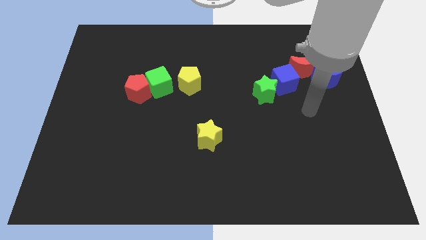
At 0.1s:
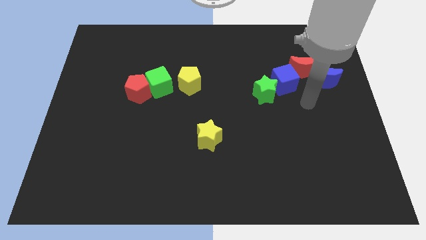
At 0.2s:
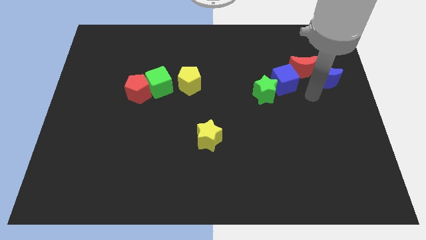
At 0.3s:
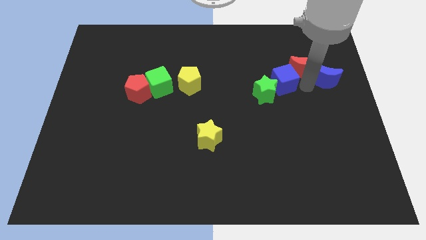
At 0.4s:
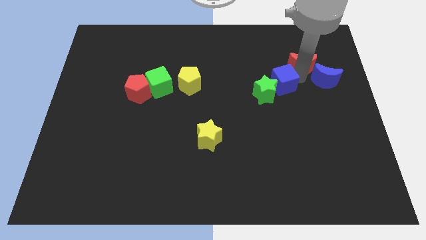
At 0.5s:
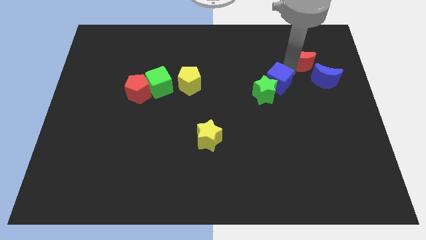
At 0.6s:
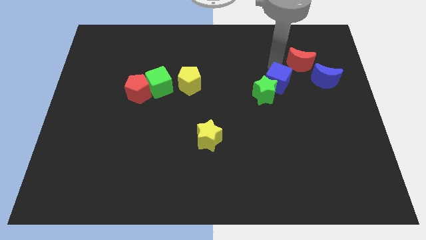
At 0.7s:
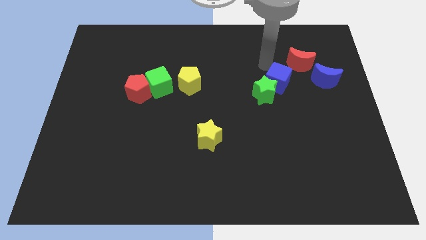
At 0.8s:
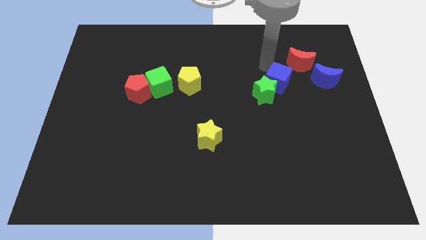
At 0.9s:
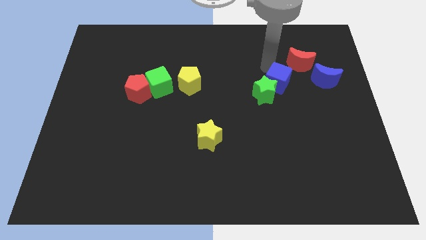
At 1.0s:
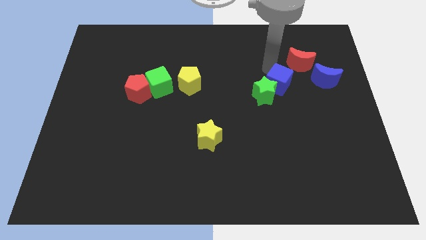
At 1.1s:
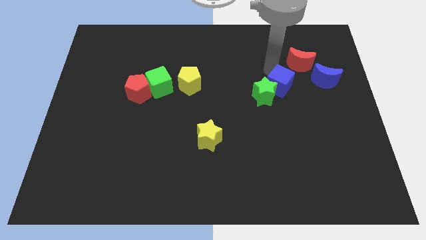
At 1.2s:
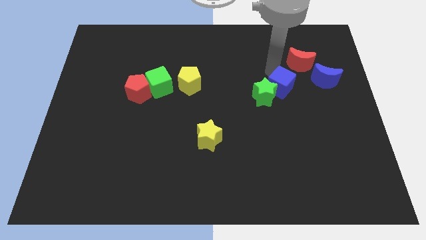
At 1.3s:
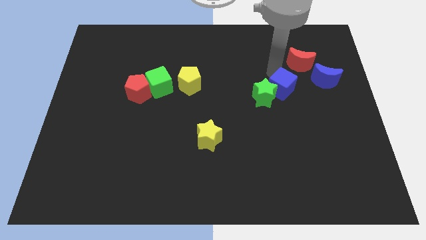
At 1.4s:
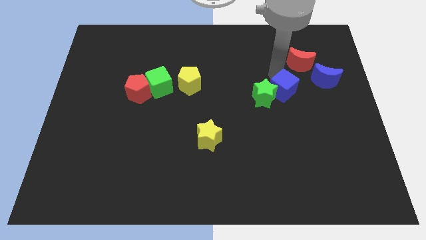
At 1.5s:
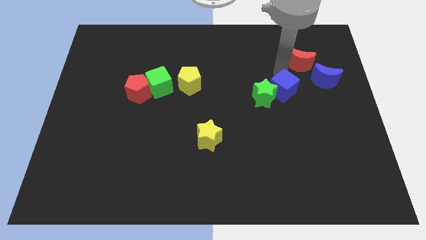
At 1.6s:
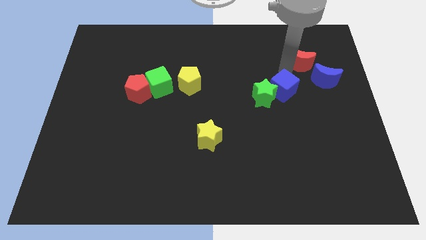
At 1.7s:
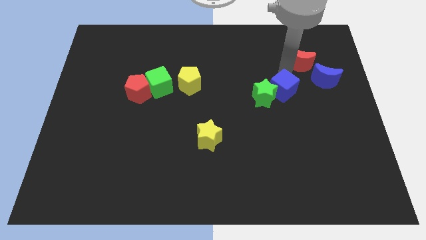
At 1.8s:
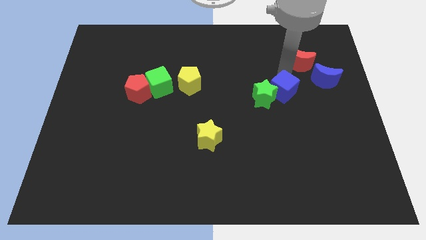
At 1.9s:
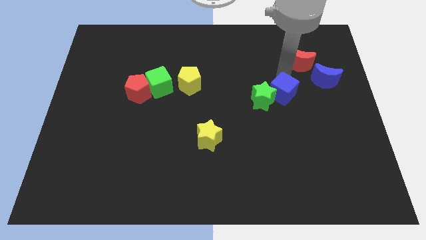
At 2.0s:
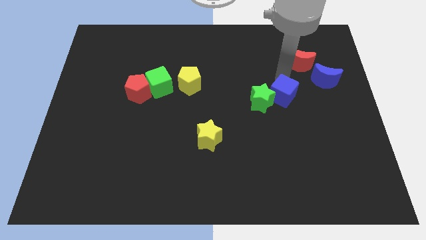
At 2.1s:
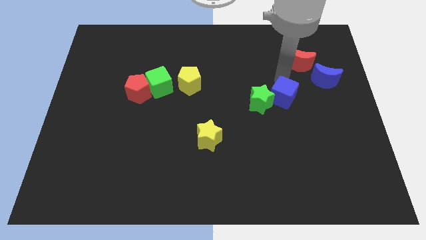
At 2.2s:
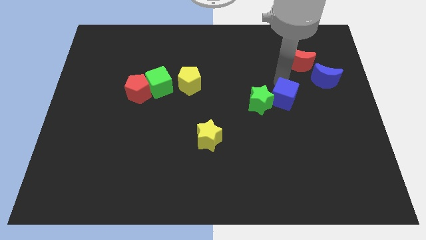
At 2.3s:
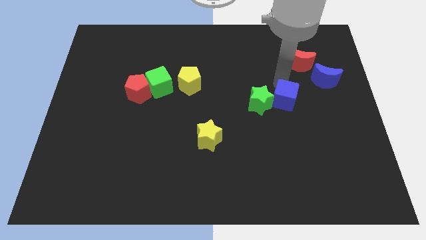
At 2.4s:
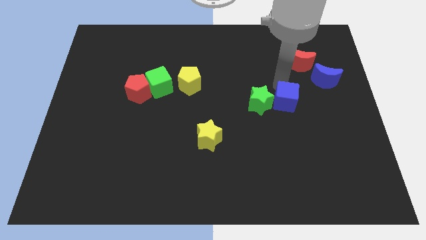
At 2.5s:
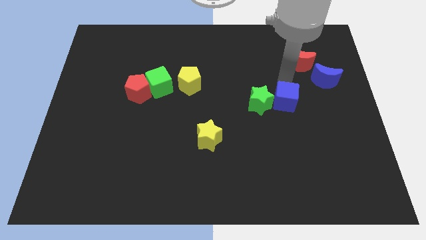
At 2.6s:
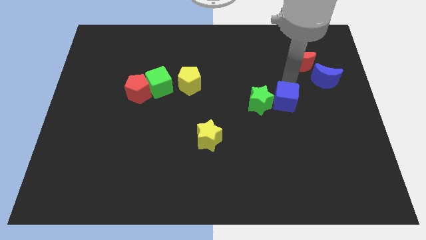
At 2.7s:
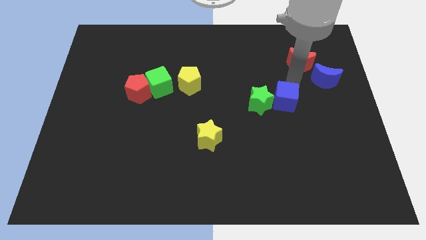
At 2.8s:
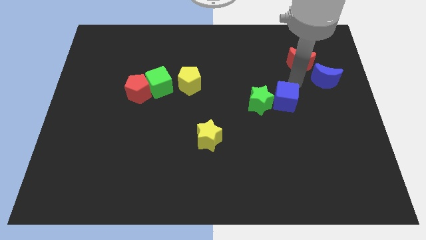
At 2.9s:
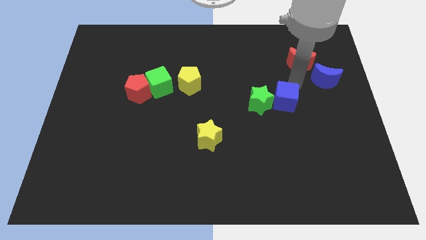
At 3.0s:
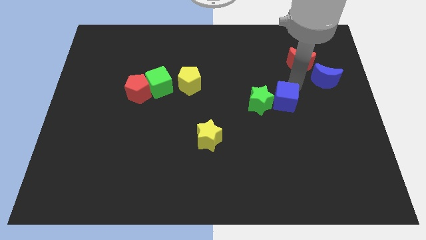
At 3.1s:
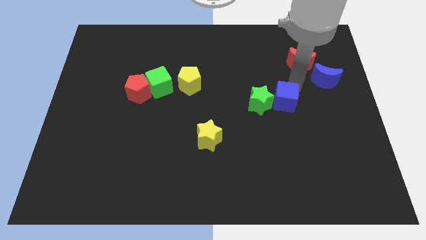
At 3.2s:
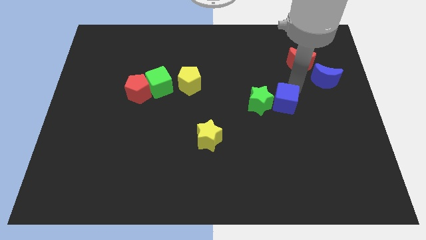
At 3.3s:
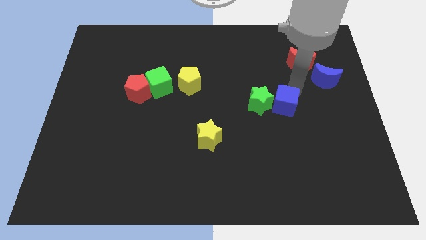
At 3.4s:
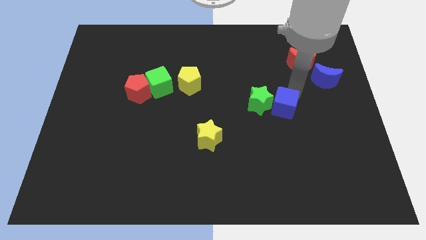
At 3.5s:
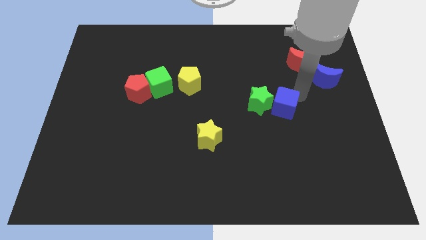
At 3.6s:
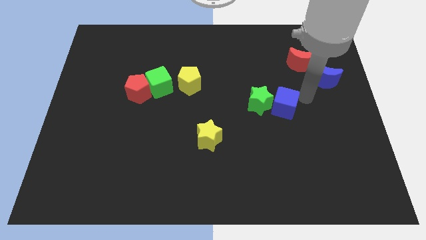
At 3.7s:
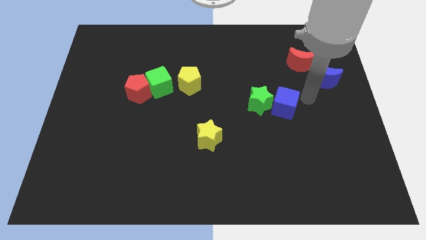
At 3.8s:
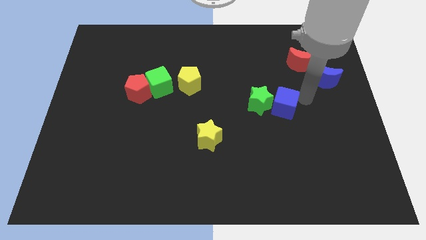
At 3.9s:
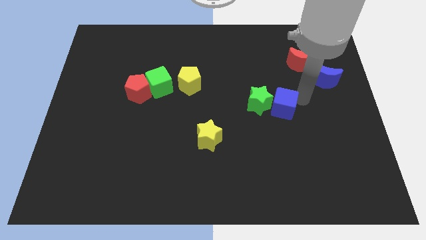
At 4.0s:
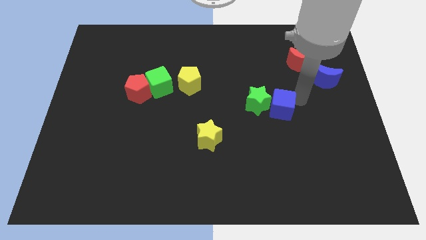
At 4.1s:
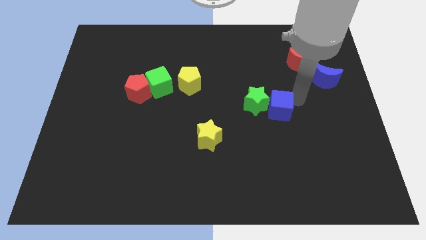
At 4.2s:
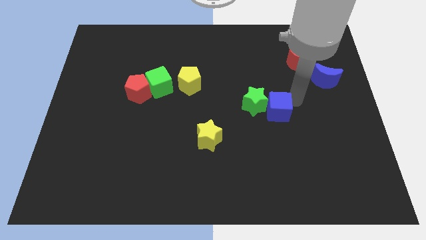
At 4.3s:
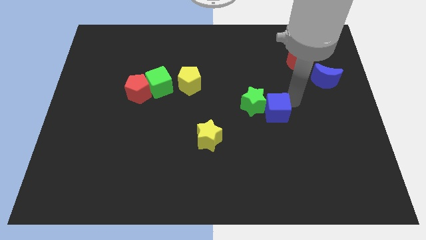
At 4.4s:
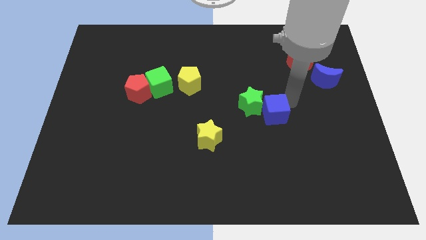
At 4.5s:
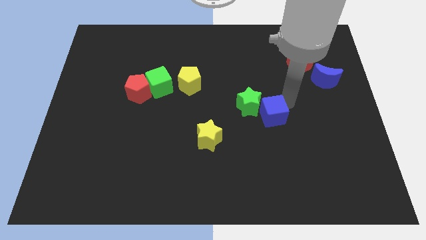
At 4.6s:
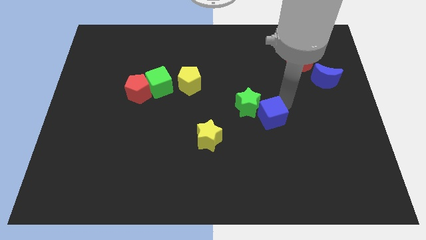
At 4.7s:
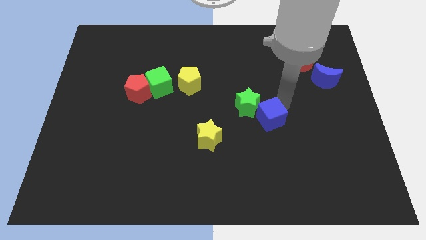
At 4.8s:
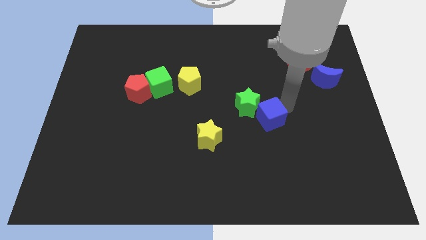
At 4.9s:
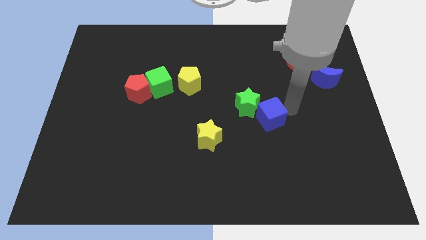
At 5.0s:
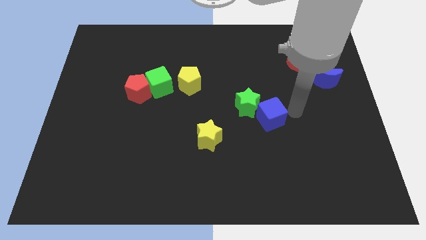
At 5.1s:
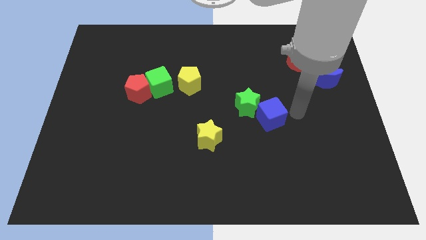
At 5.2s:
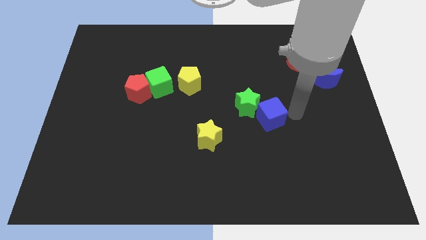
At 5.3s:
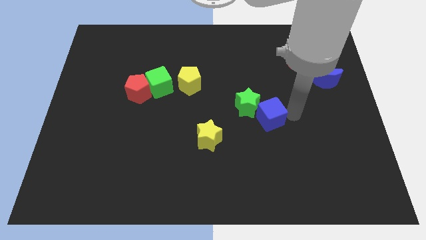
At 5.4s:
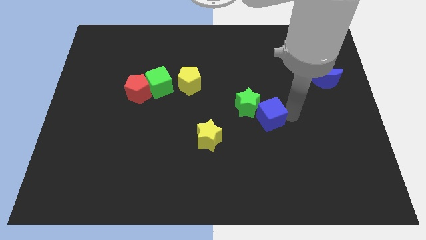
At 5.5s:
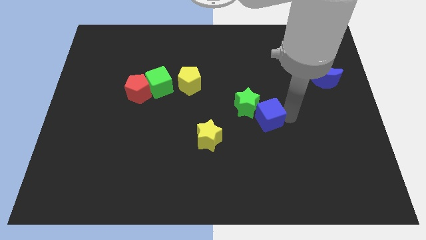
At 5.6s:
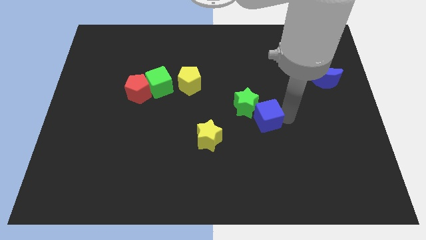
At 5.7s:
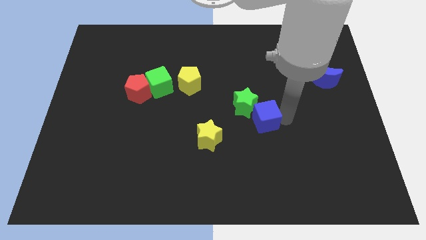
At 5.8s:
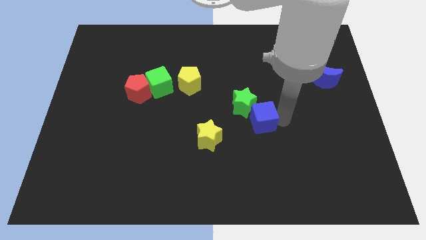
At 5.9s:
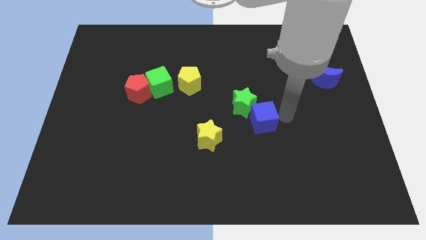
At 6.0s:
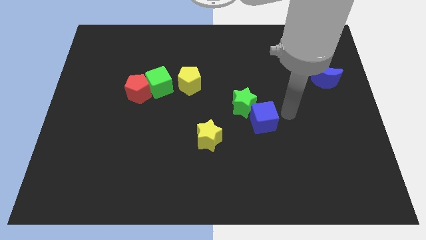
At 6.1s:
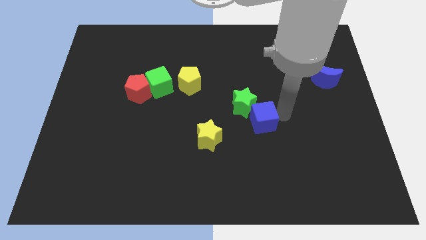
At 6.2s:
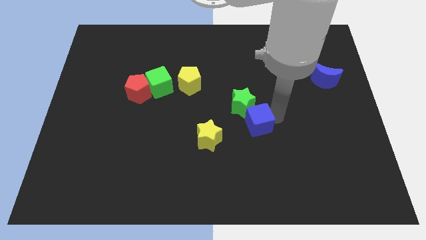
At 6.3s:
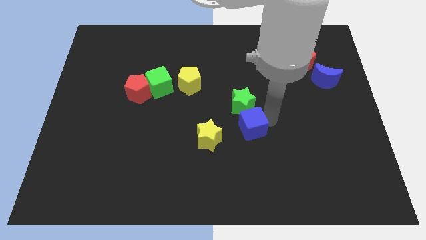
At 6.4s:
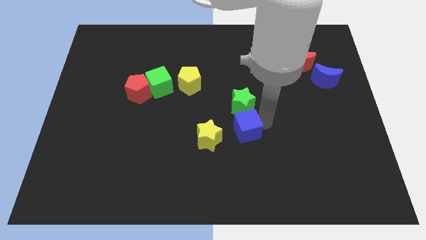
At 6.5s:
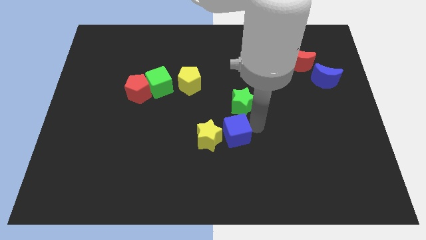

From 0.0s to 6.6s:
slide the blue cube towards the yellow star
